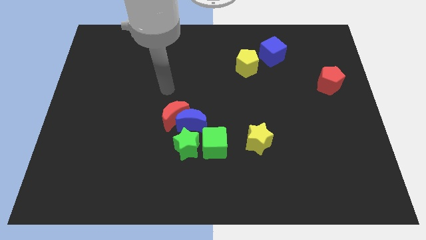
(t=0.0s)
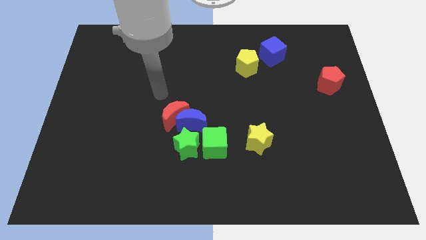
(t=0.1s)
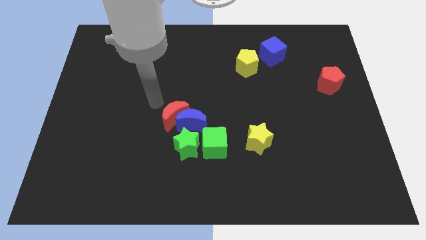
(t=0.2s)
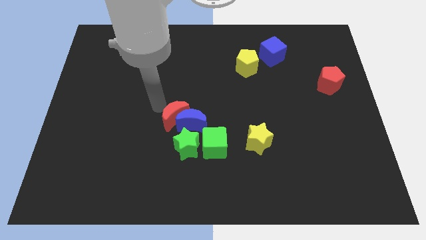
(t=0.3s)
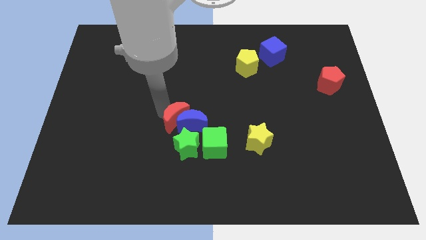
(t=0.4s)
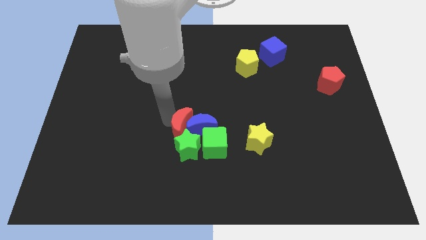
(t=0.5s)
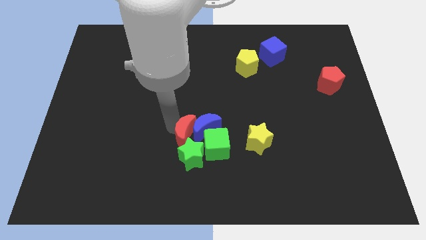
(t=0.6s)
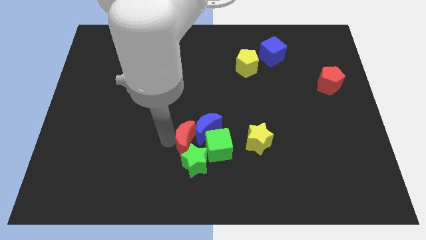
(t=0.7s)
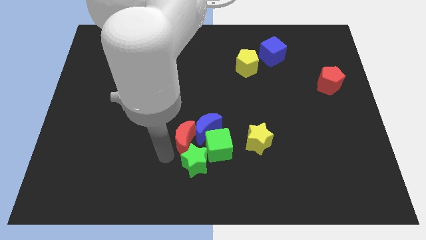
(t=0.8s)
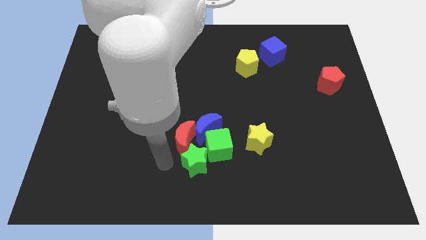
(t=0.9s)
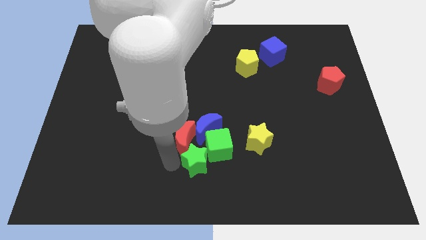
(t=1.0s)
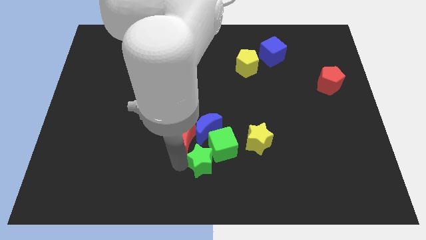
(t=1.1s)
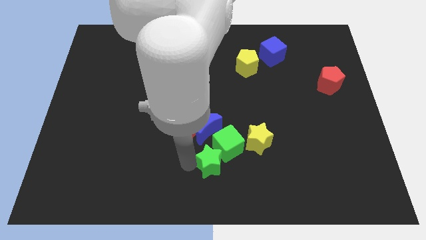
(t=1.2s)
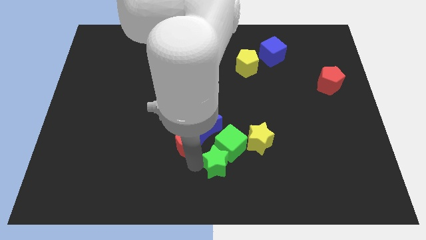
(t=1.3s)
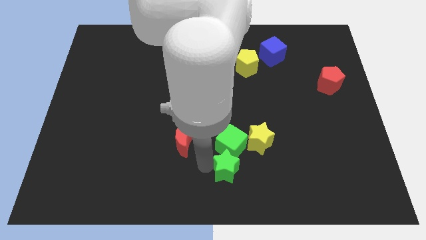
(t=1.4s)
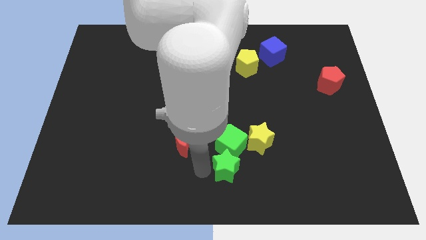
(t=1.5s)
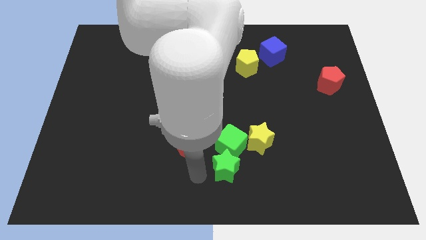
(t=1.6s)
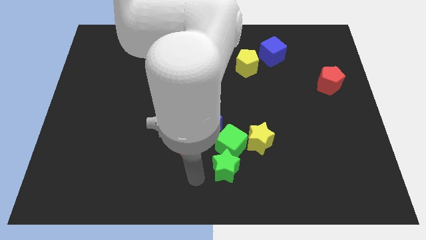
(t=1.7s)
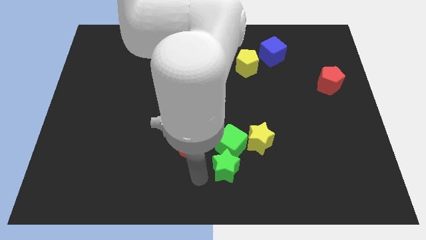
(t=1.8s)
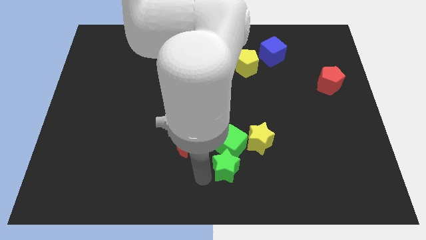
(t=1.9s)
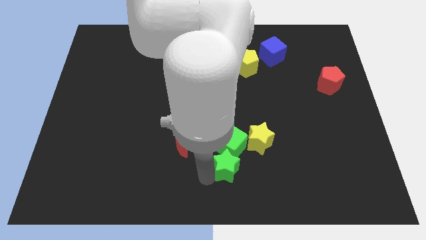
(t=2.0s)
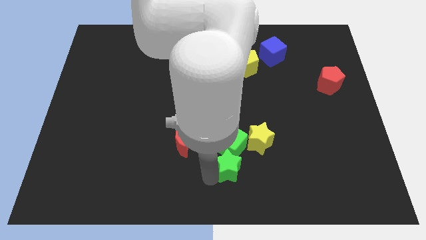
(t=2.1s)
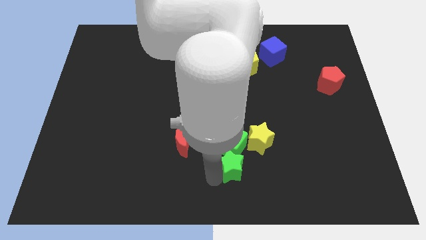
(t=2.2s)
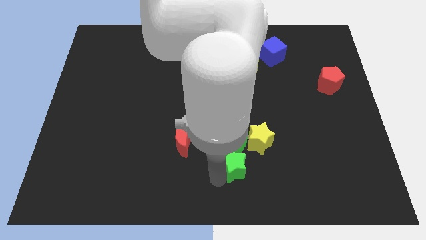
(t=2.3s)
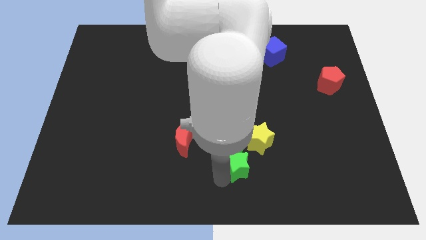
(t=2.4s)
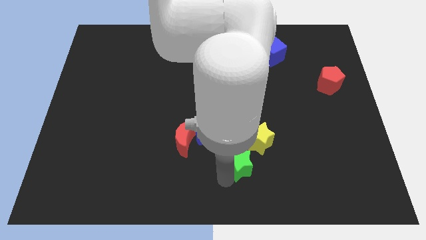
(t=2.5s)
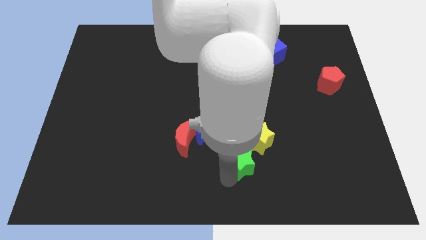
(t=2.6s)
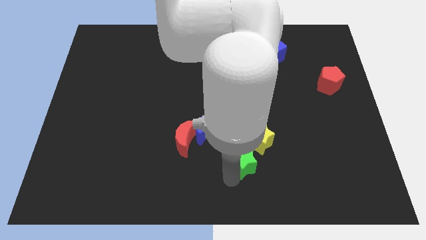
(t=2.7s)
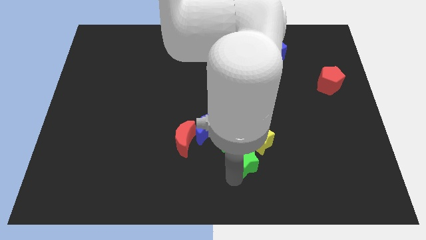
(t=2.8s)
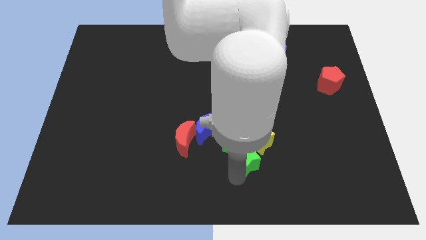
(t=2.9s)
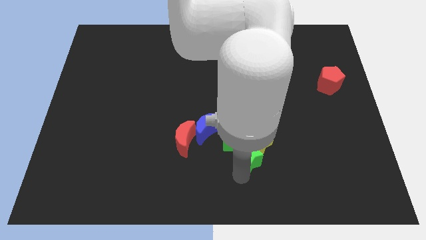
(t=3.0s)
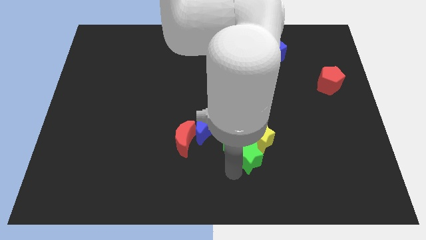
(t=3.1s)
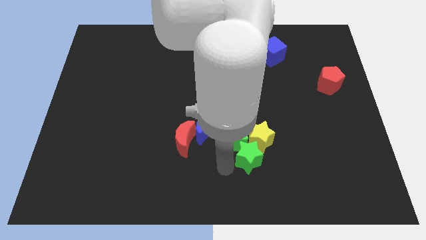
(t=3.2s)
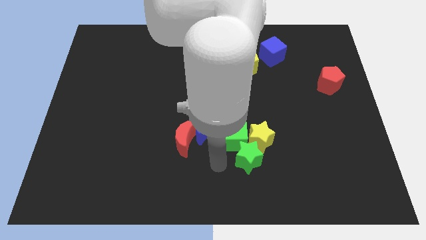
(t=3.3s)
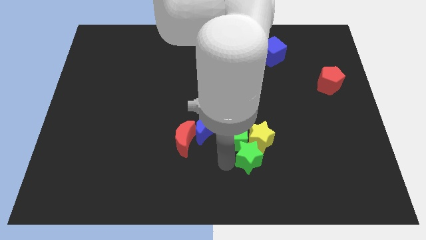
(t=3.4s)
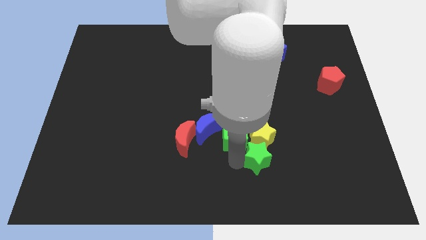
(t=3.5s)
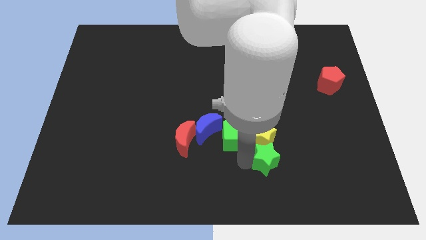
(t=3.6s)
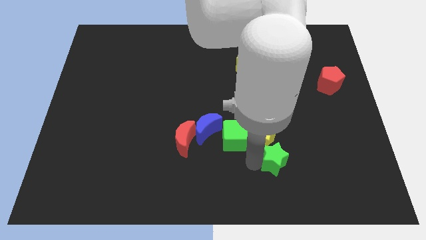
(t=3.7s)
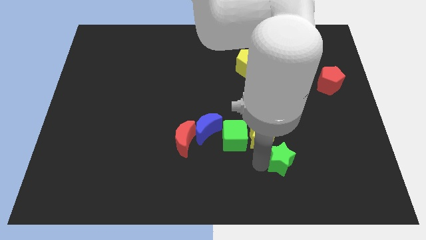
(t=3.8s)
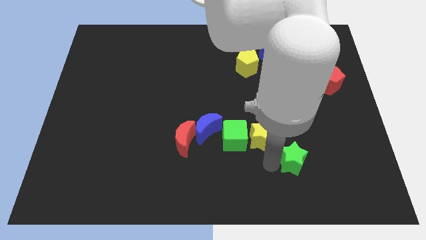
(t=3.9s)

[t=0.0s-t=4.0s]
move the green star right

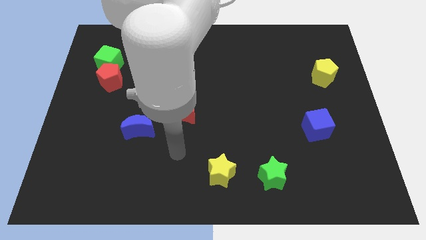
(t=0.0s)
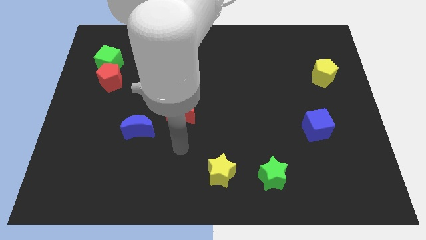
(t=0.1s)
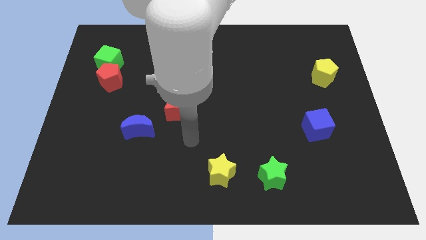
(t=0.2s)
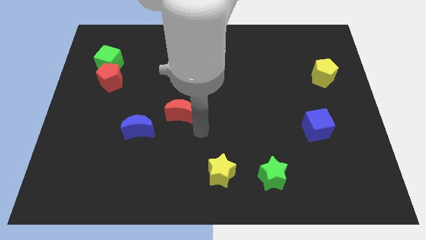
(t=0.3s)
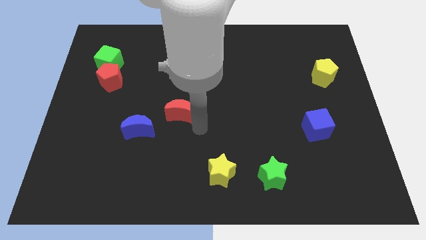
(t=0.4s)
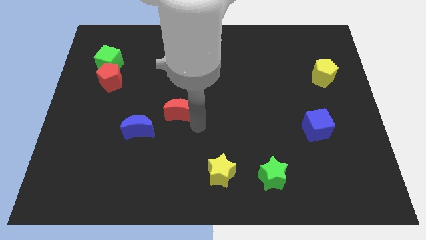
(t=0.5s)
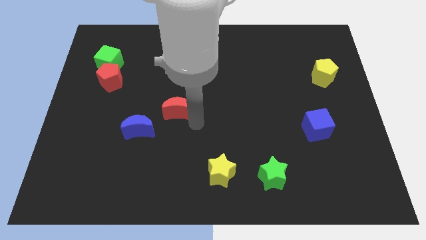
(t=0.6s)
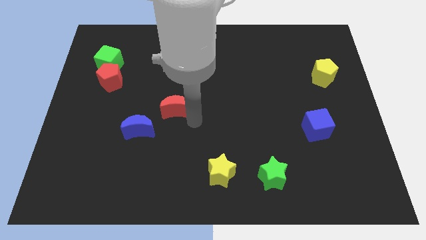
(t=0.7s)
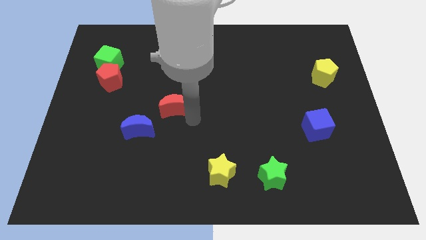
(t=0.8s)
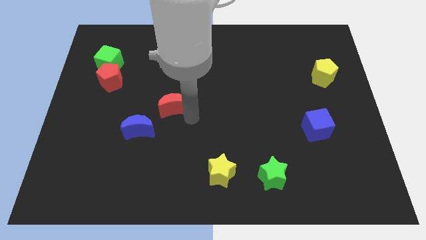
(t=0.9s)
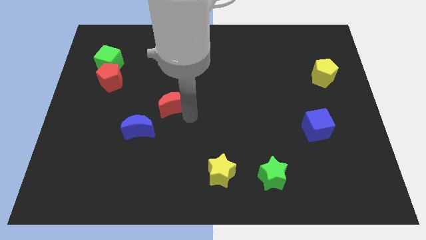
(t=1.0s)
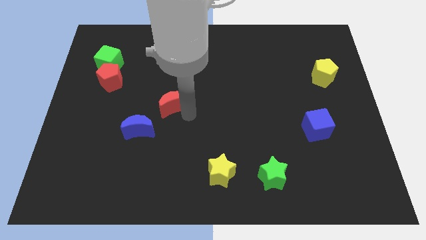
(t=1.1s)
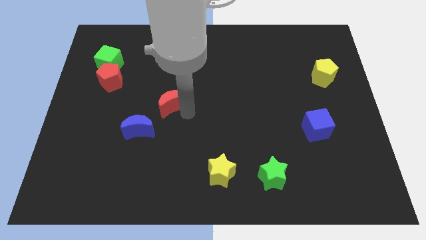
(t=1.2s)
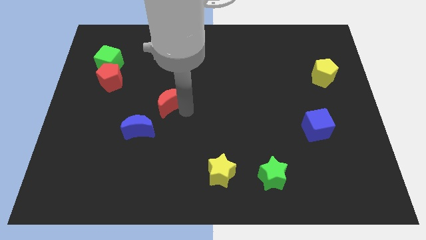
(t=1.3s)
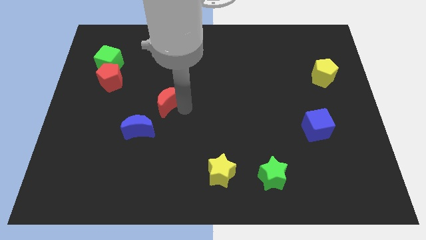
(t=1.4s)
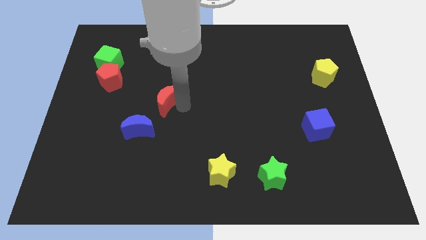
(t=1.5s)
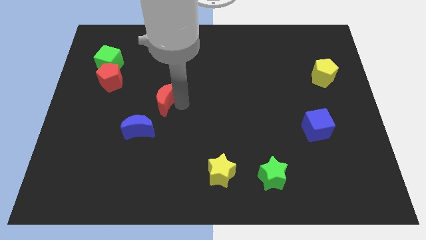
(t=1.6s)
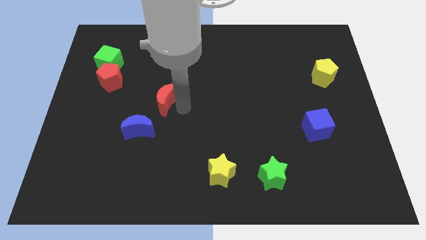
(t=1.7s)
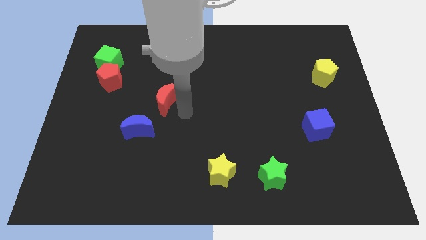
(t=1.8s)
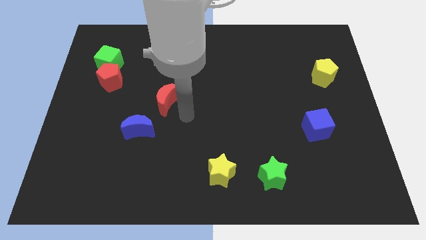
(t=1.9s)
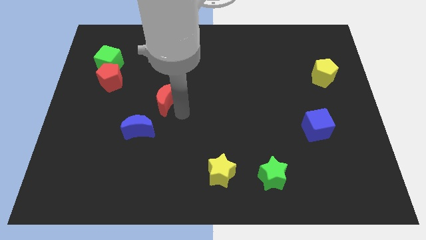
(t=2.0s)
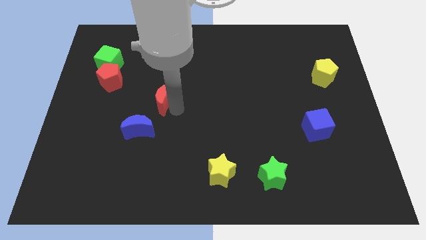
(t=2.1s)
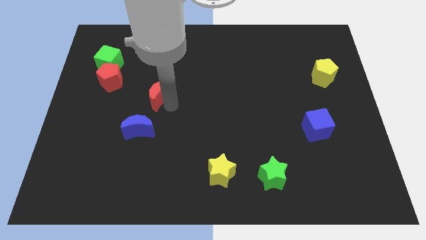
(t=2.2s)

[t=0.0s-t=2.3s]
push the red moon upwards and left a little bit

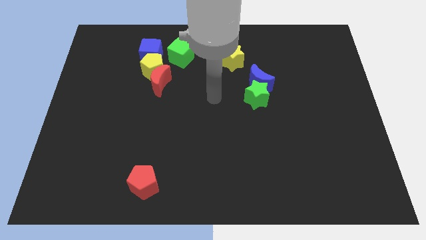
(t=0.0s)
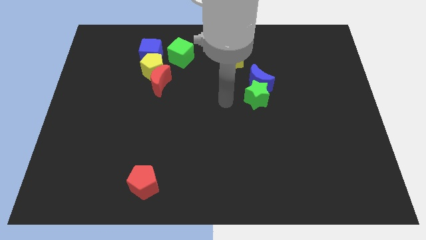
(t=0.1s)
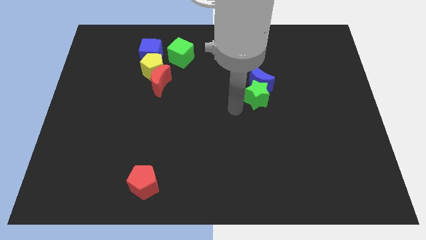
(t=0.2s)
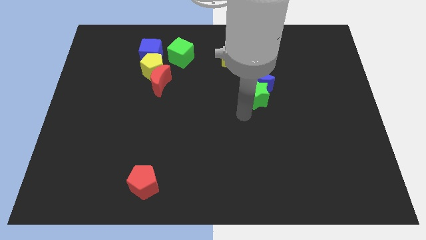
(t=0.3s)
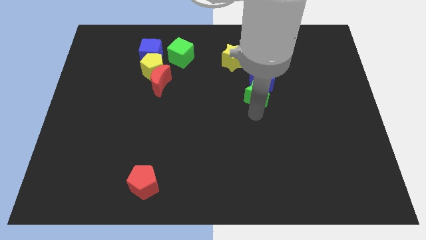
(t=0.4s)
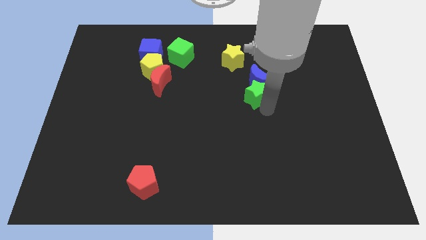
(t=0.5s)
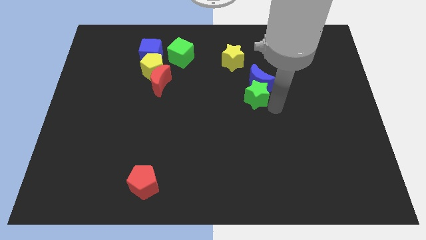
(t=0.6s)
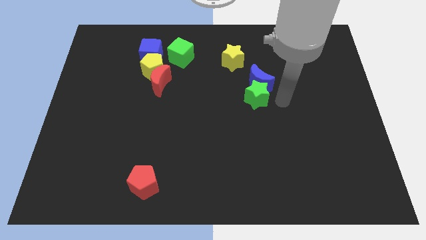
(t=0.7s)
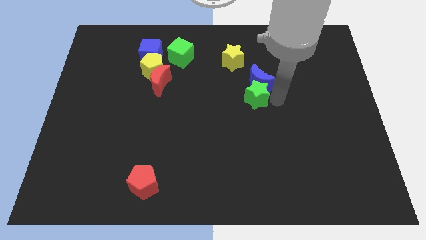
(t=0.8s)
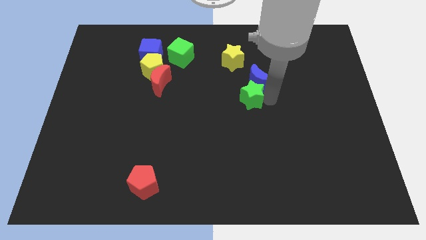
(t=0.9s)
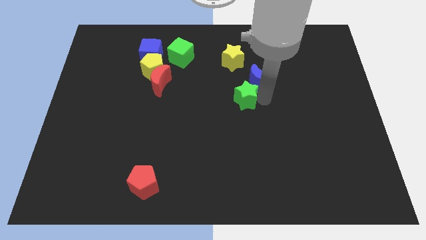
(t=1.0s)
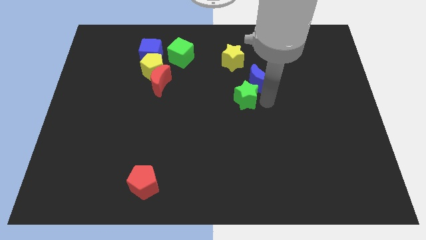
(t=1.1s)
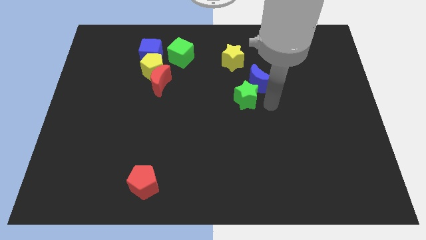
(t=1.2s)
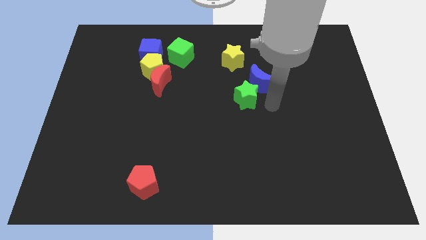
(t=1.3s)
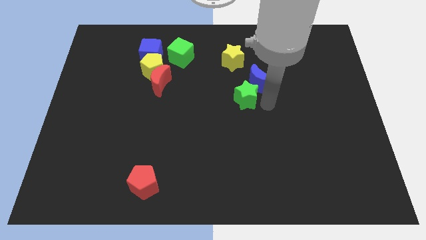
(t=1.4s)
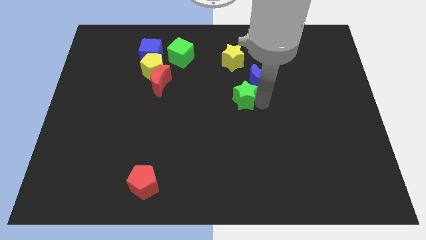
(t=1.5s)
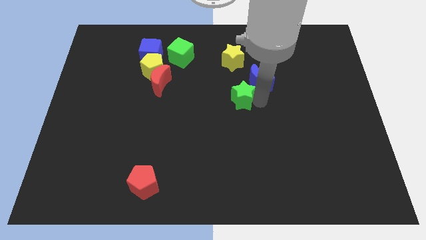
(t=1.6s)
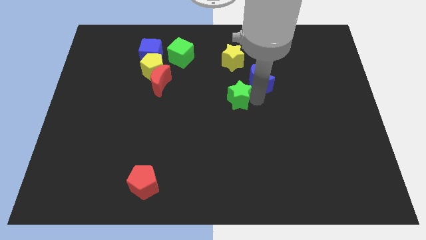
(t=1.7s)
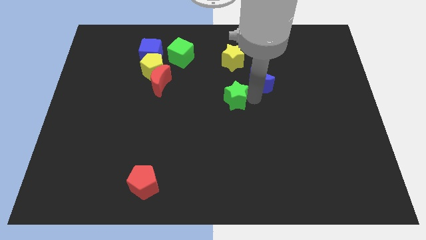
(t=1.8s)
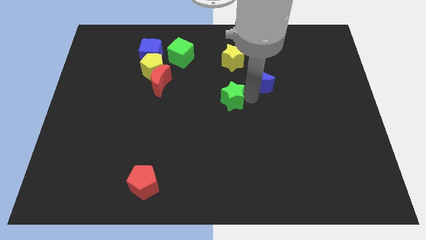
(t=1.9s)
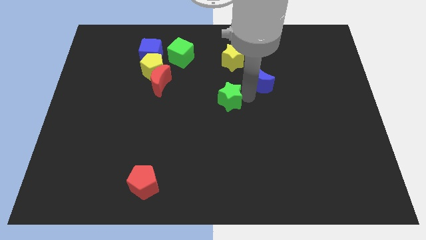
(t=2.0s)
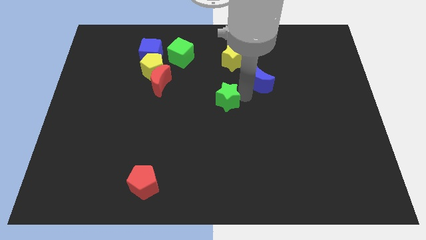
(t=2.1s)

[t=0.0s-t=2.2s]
slide the green star to the left a little bit
